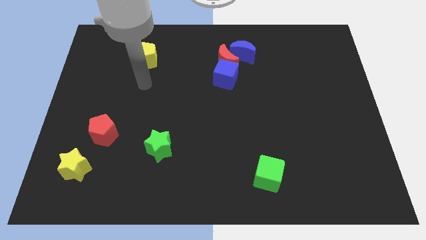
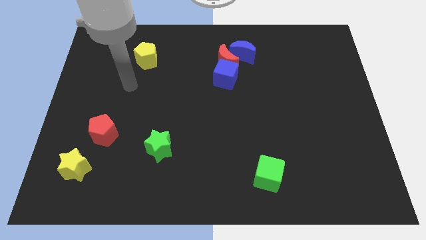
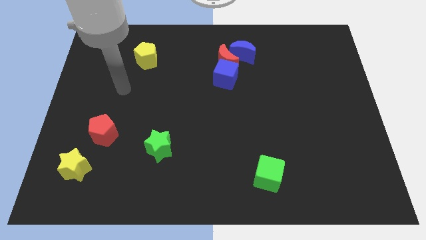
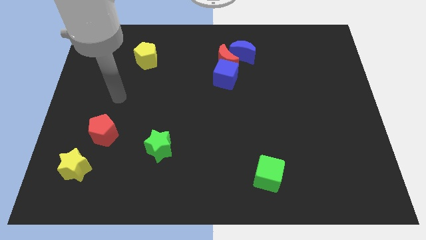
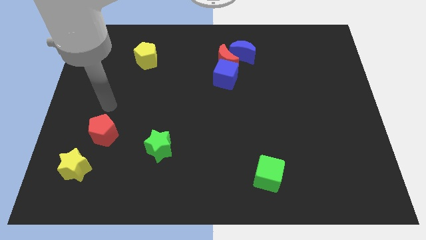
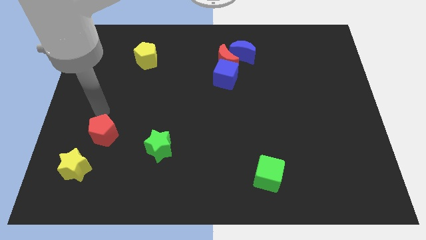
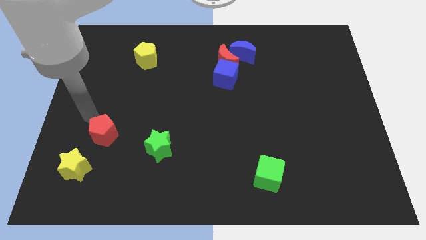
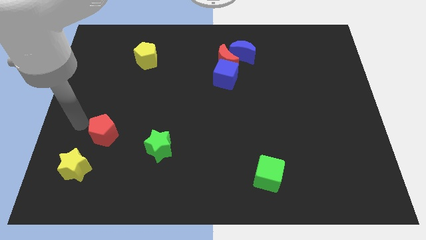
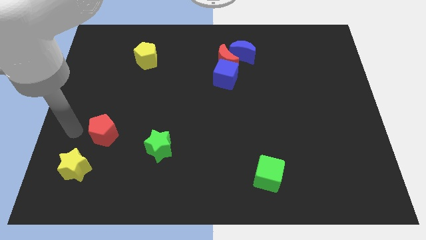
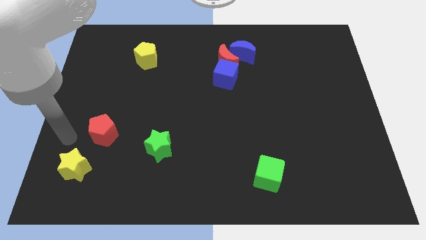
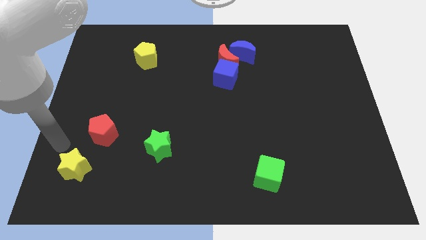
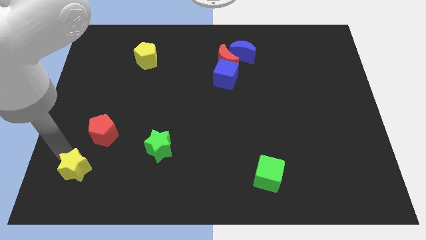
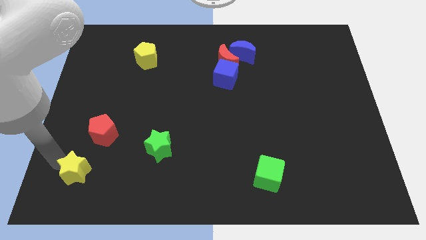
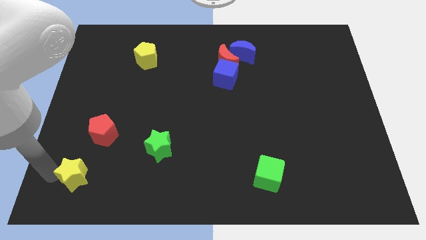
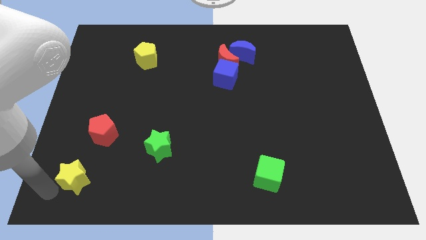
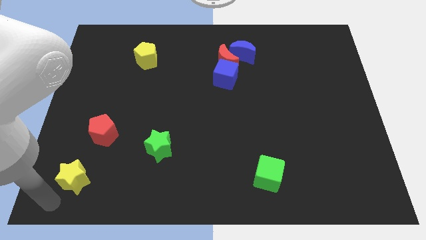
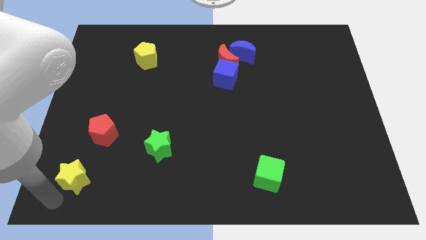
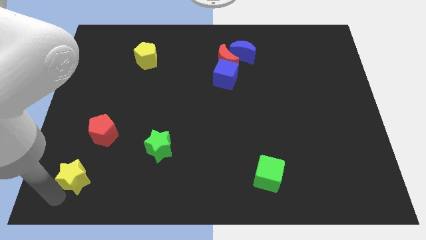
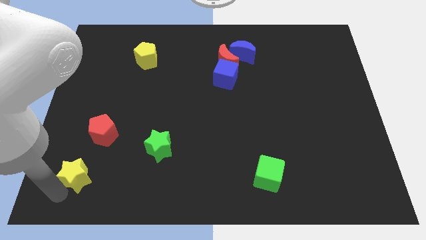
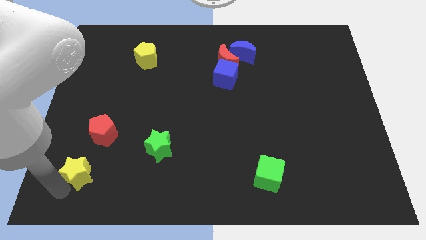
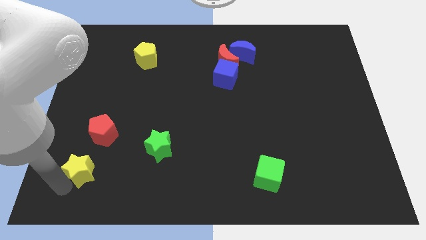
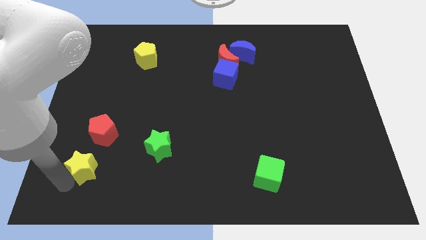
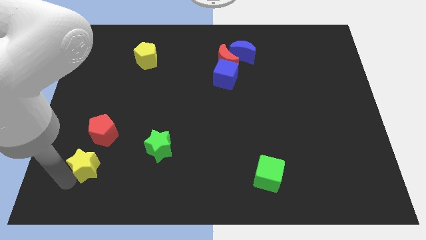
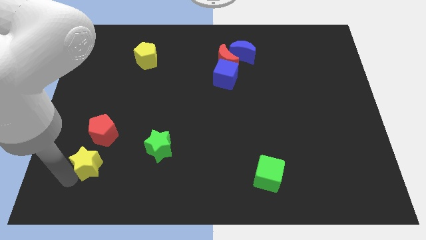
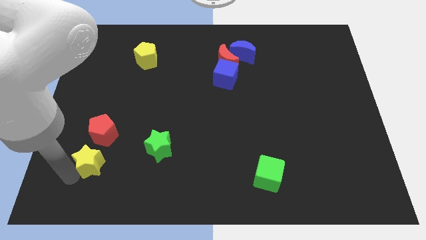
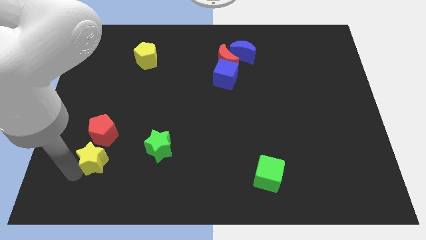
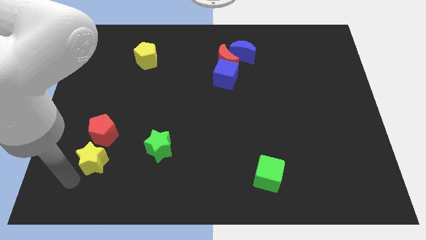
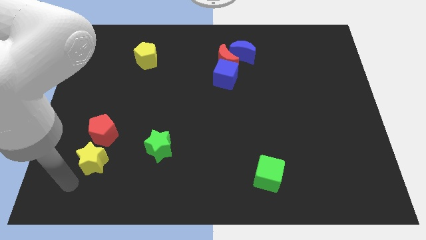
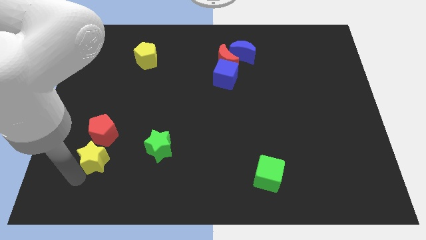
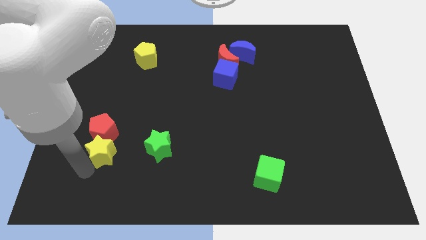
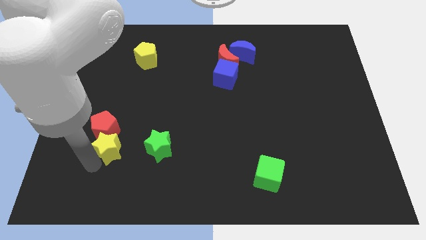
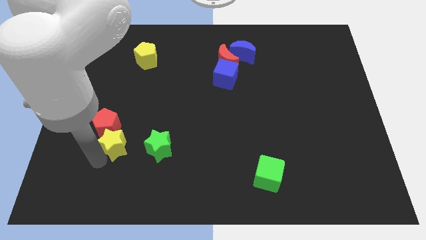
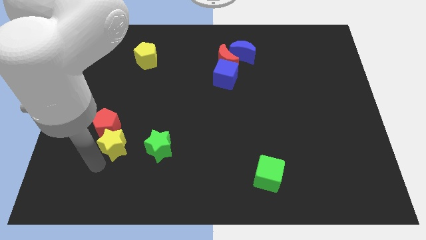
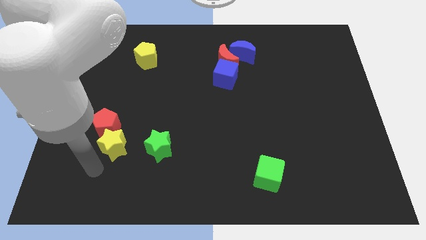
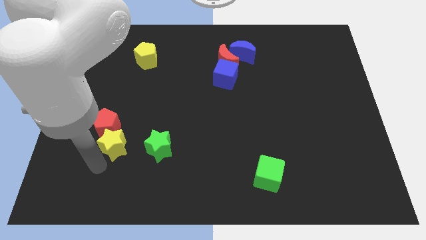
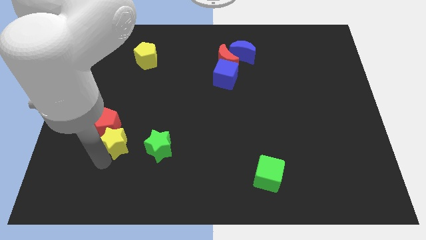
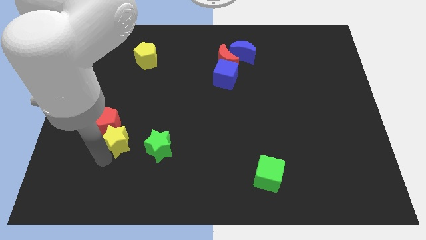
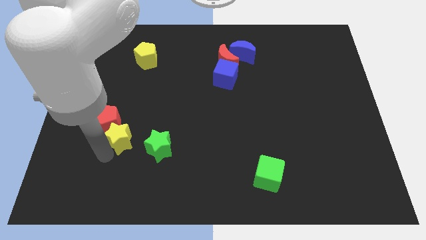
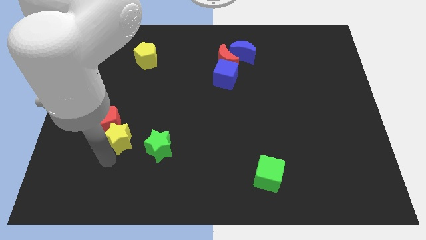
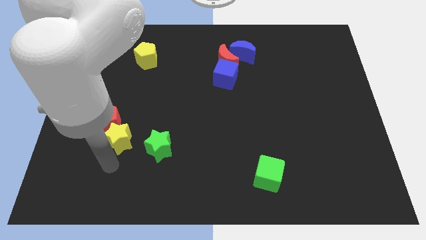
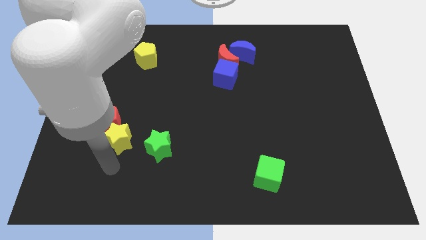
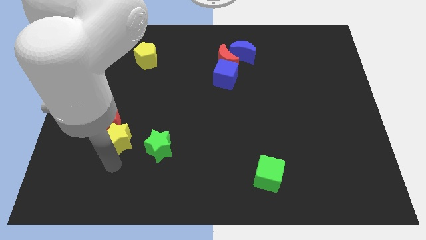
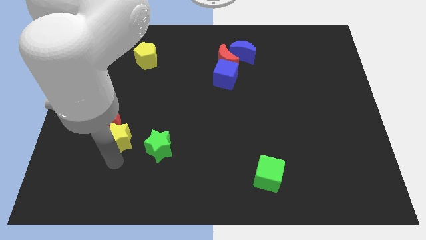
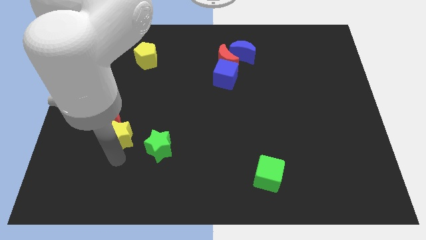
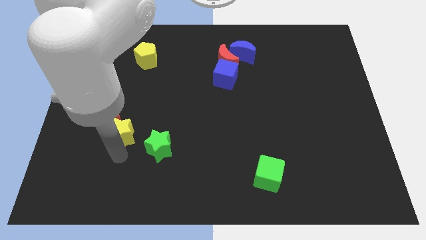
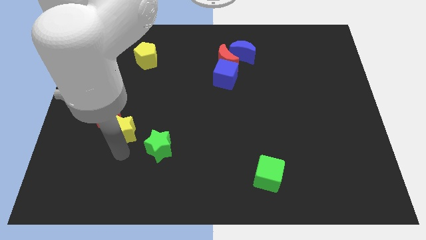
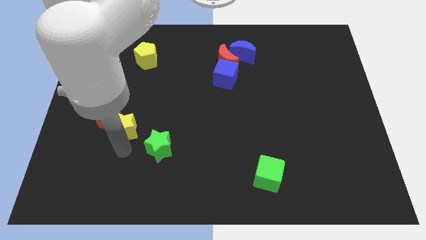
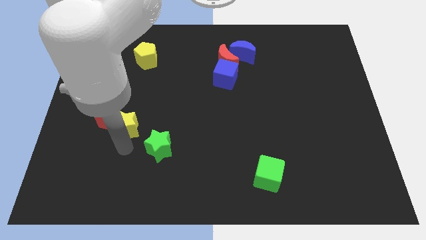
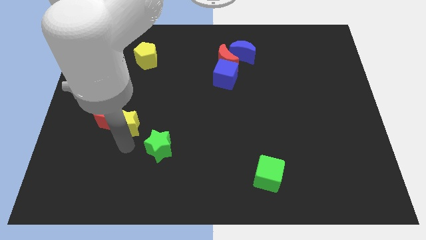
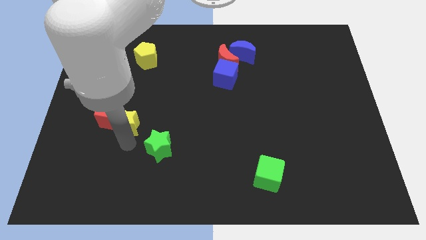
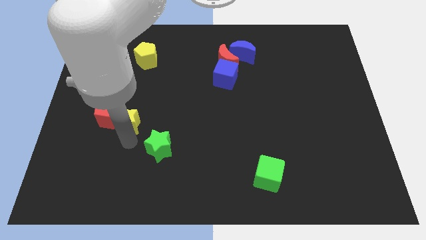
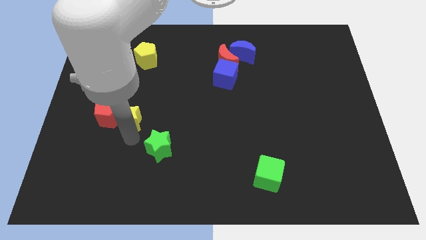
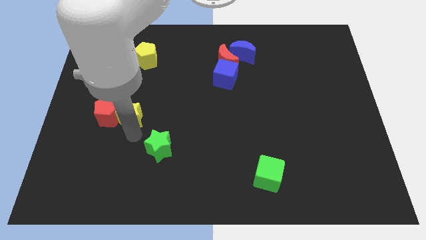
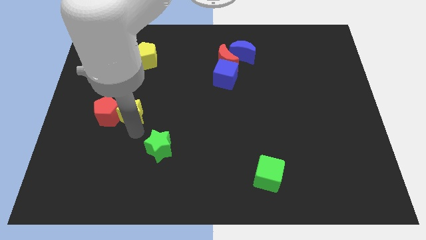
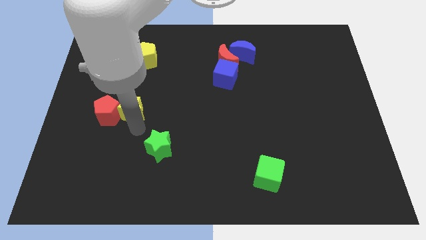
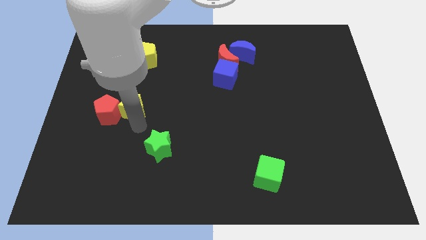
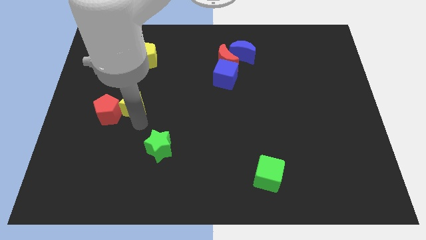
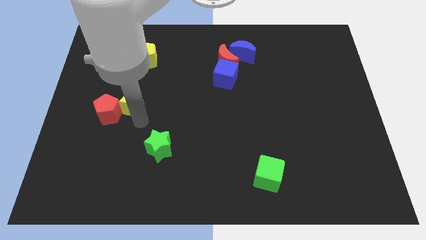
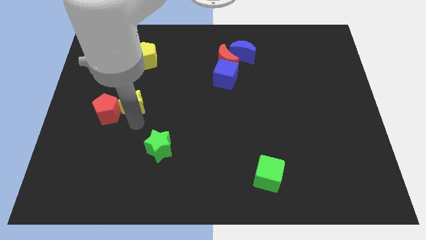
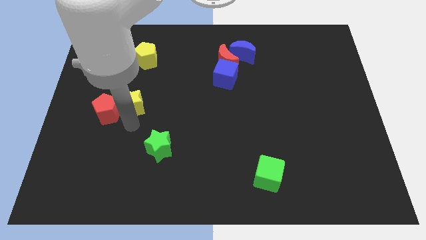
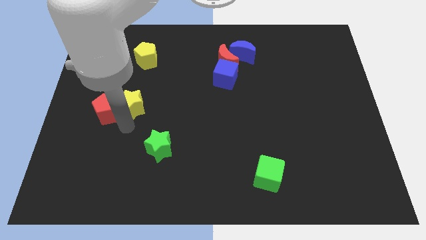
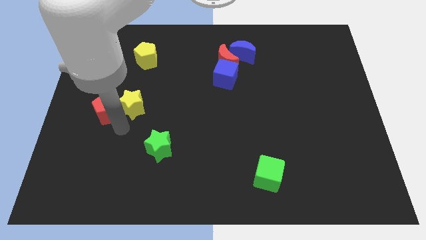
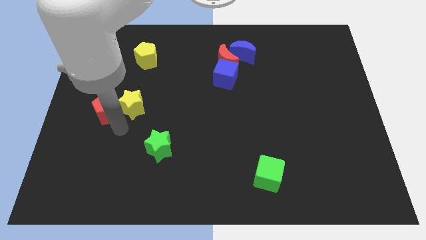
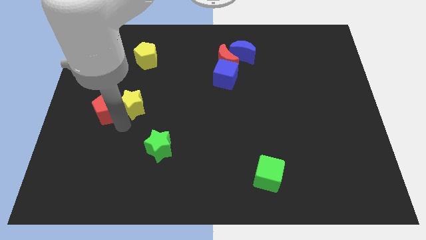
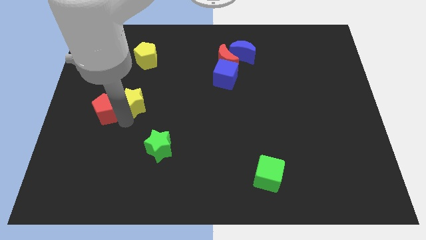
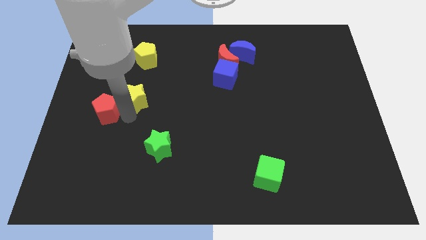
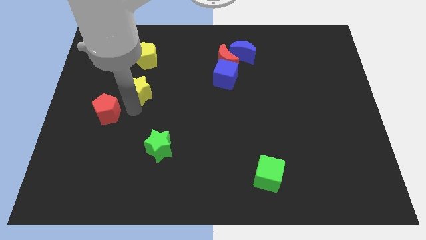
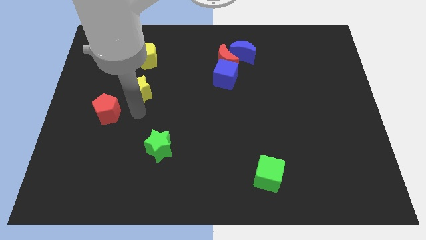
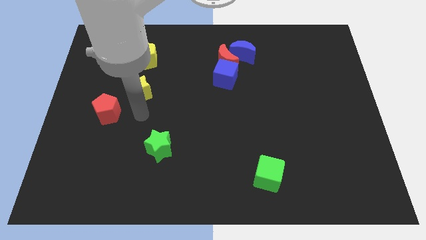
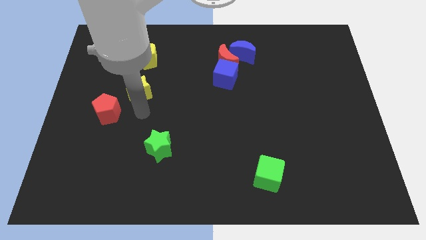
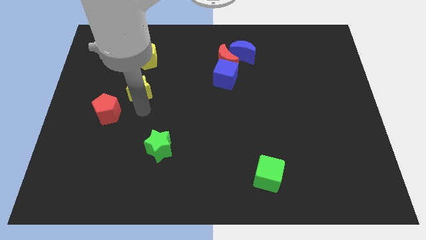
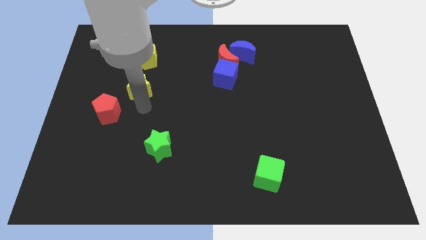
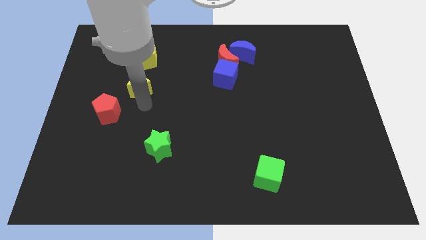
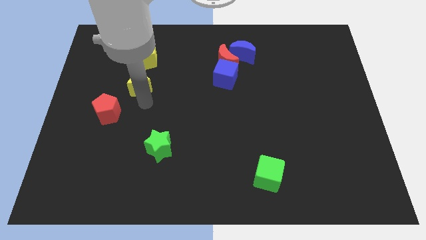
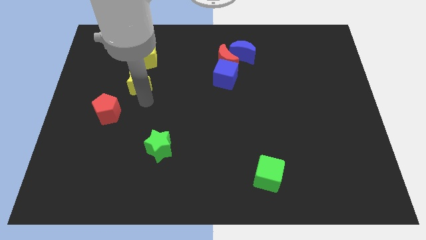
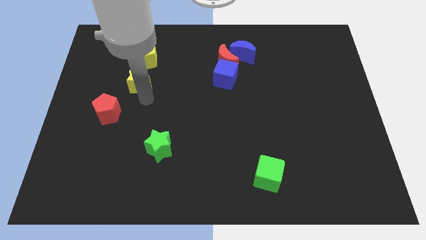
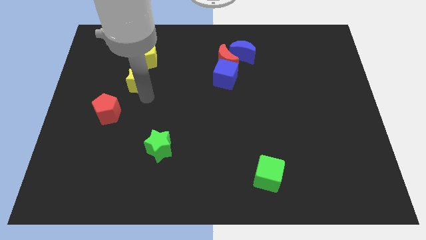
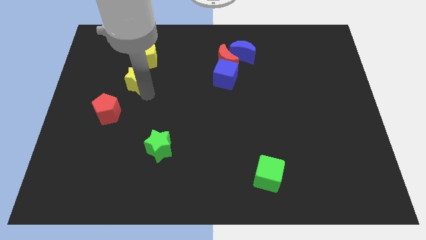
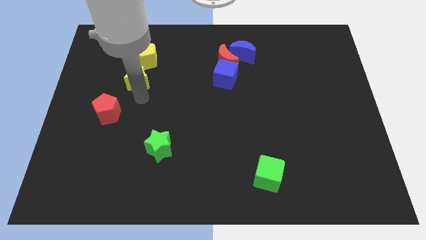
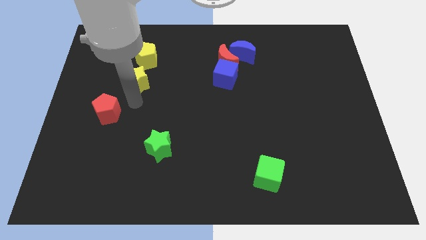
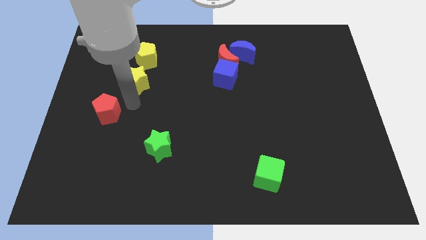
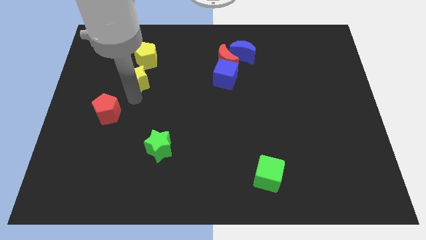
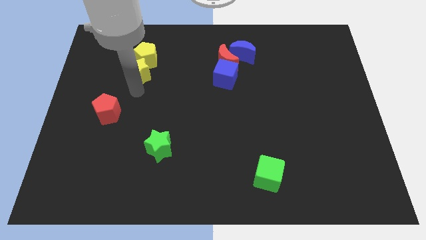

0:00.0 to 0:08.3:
put the yellow star towards the yellow pentagon
